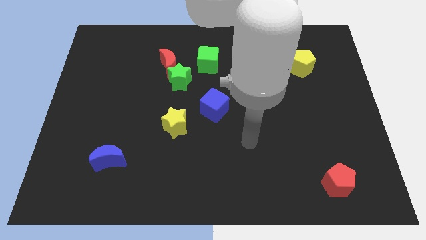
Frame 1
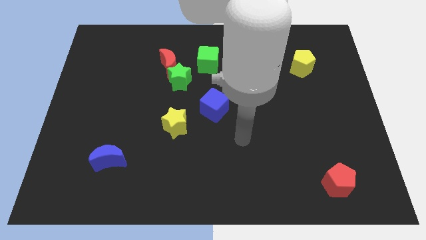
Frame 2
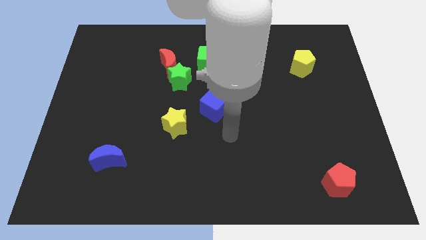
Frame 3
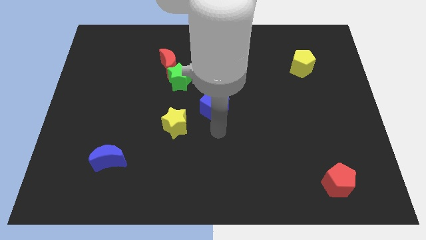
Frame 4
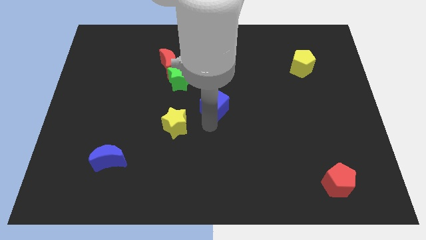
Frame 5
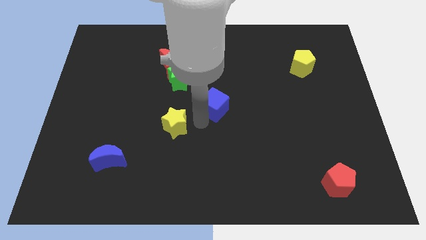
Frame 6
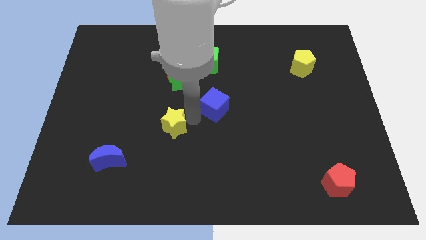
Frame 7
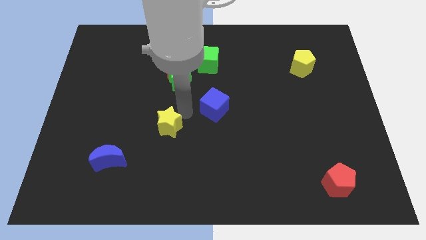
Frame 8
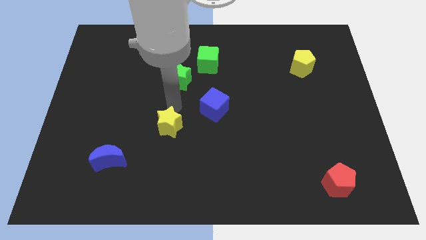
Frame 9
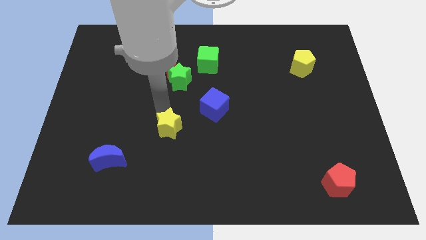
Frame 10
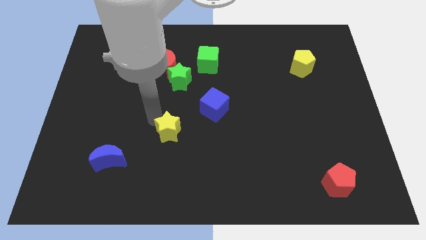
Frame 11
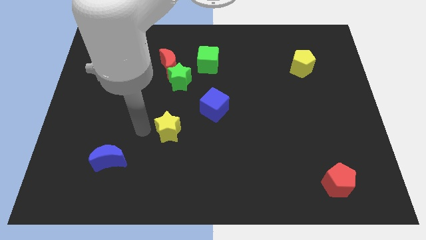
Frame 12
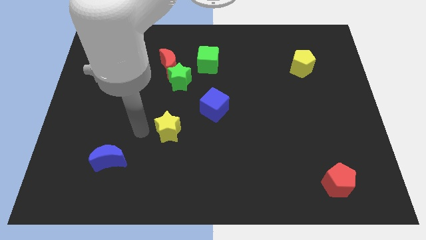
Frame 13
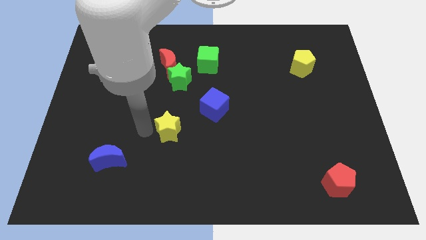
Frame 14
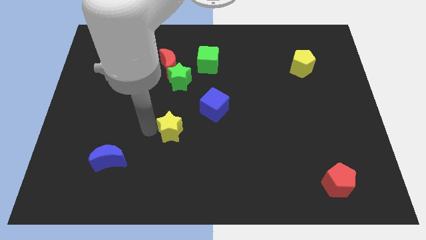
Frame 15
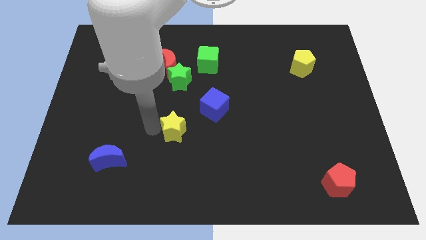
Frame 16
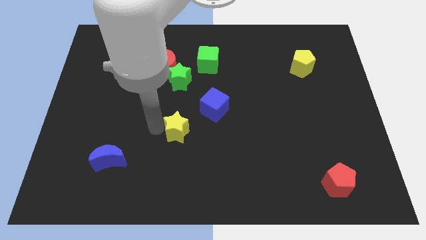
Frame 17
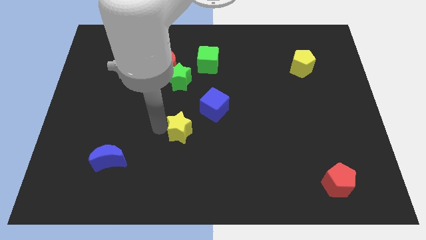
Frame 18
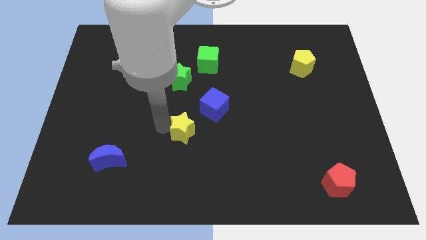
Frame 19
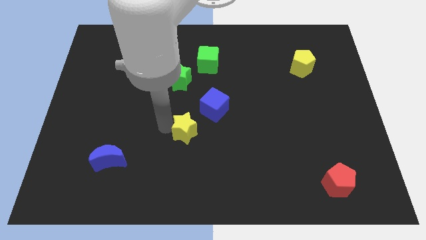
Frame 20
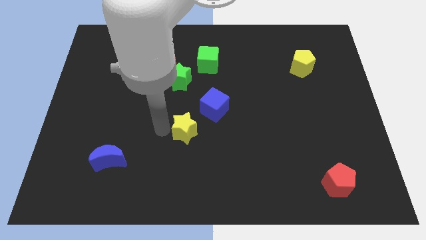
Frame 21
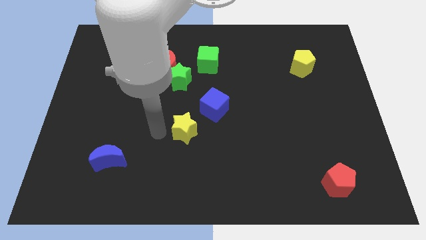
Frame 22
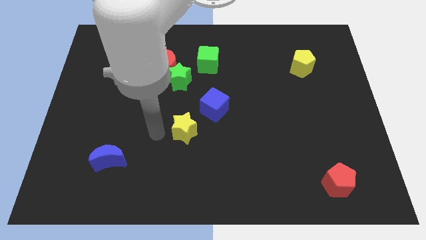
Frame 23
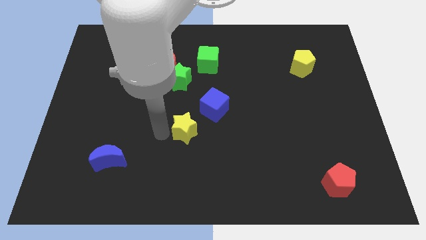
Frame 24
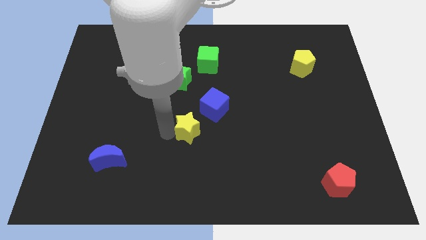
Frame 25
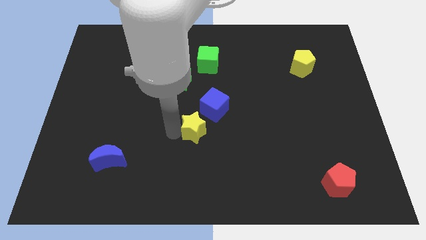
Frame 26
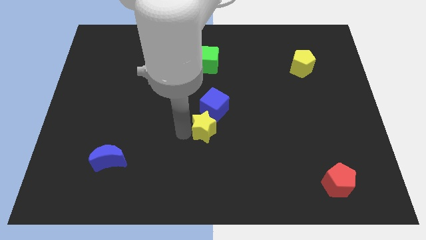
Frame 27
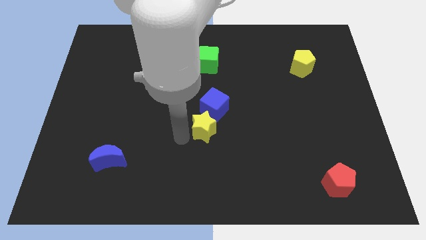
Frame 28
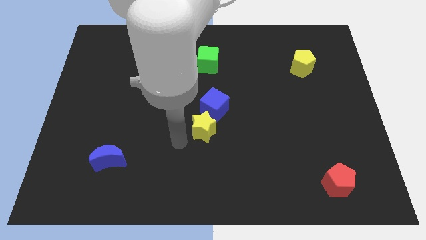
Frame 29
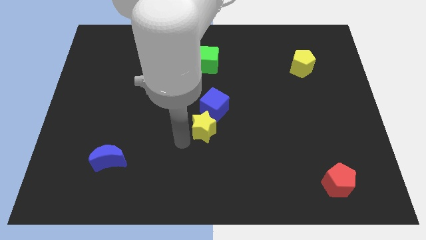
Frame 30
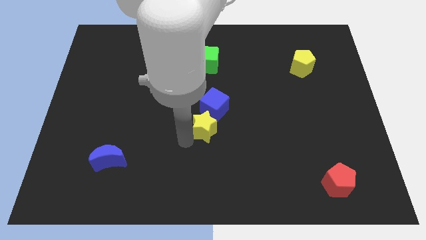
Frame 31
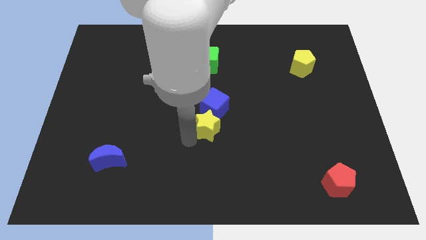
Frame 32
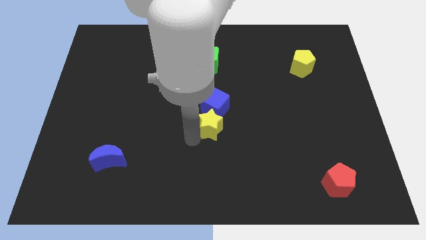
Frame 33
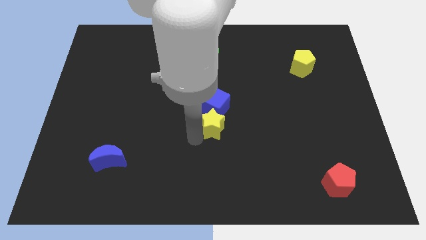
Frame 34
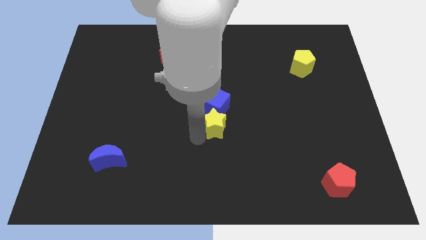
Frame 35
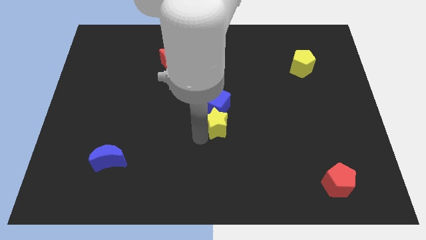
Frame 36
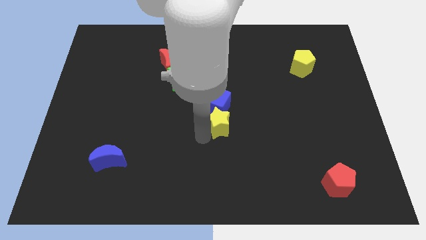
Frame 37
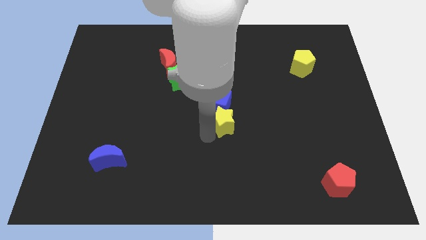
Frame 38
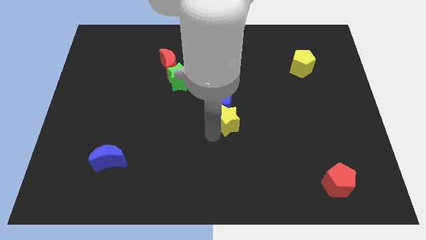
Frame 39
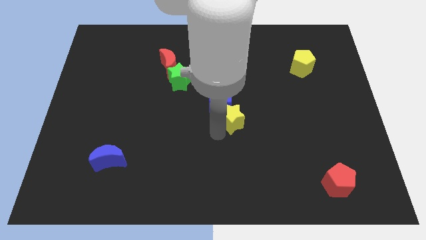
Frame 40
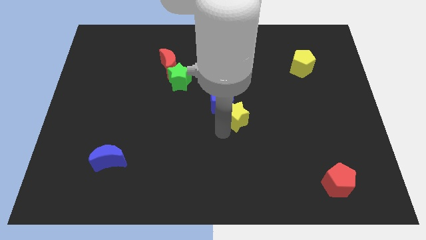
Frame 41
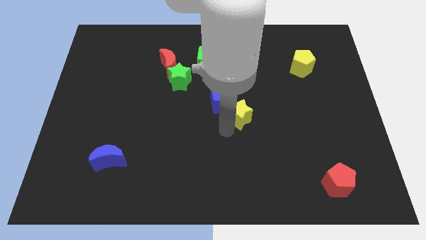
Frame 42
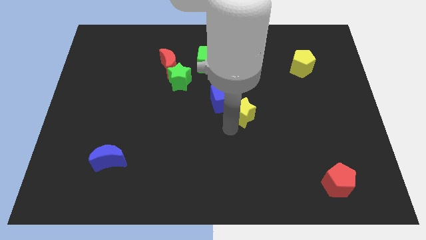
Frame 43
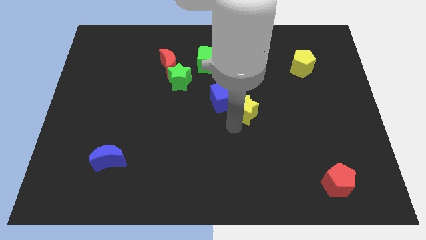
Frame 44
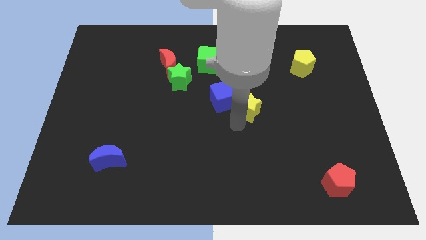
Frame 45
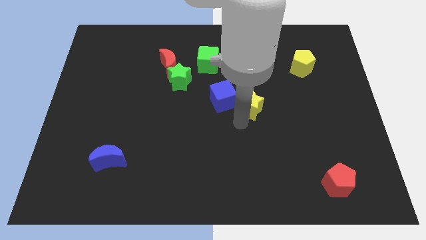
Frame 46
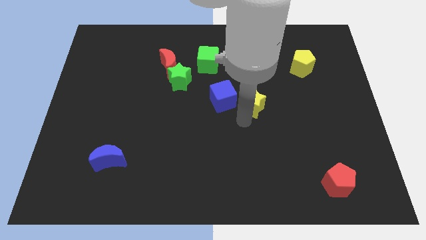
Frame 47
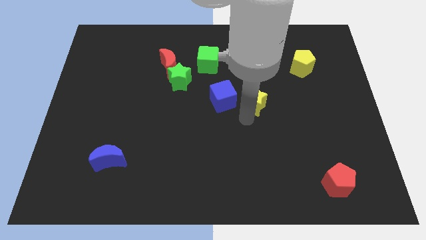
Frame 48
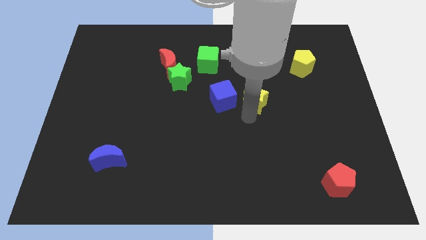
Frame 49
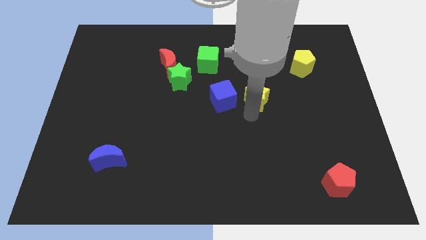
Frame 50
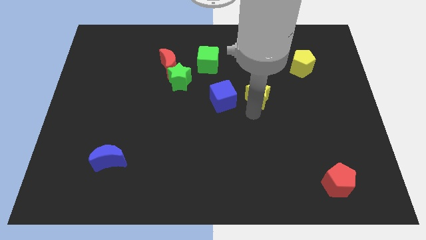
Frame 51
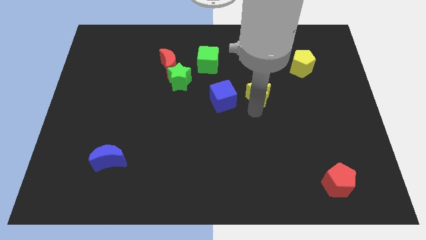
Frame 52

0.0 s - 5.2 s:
put the yellow star to the top right of the blue cube

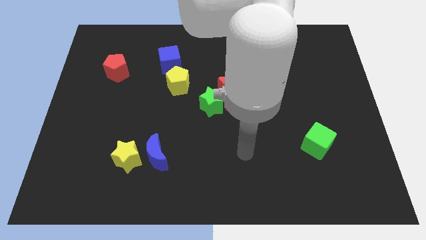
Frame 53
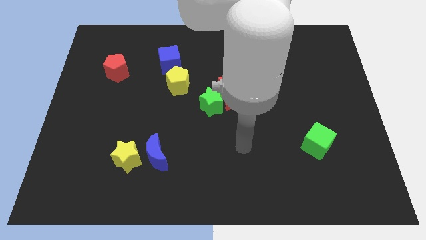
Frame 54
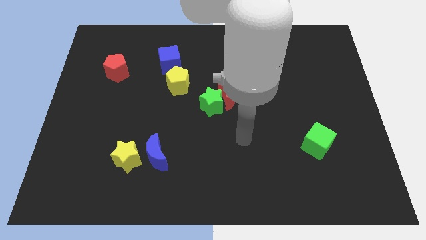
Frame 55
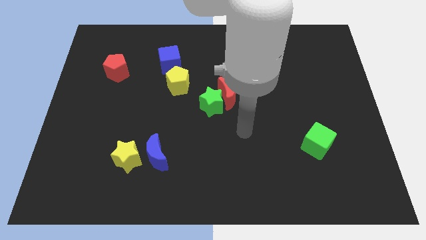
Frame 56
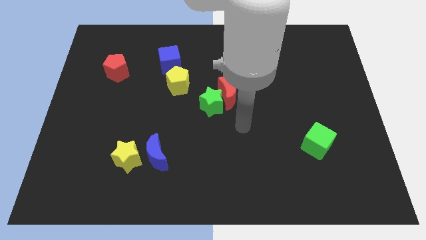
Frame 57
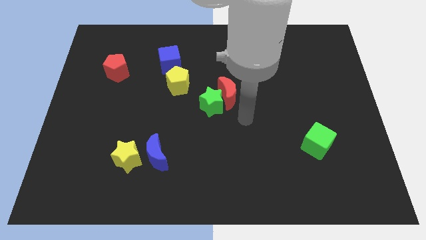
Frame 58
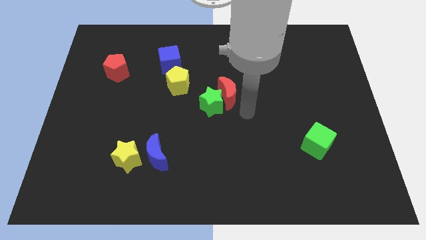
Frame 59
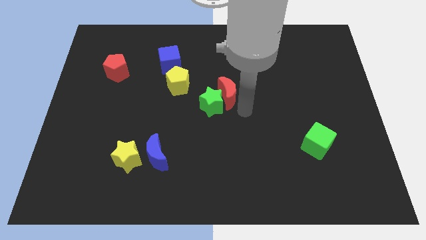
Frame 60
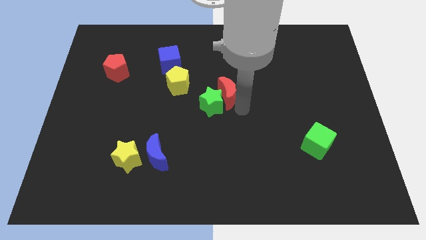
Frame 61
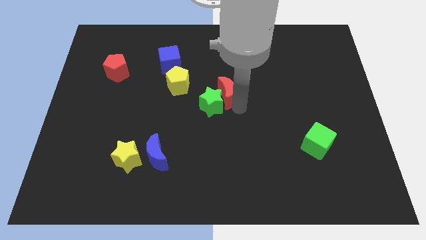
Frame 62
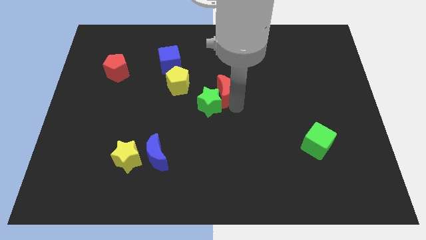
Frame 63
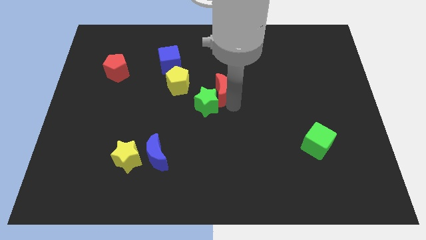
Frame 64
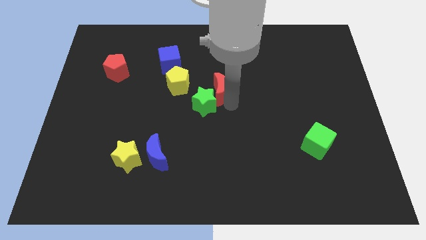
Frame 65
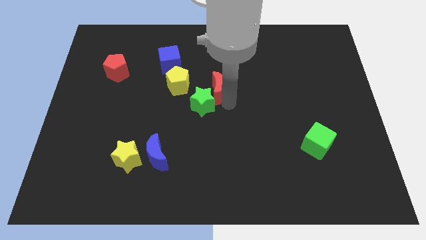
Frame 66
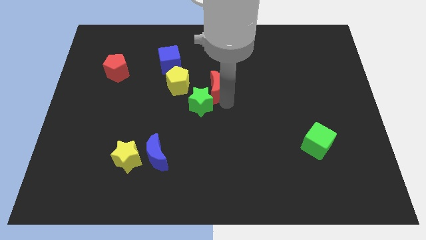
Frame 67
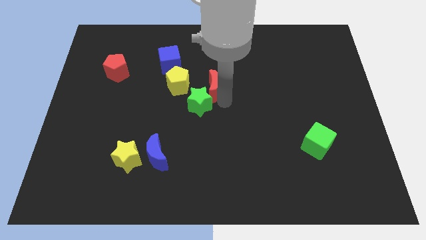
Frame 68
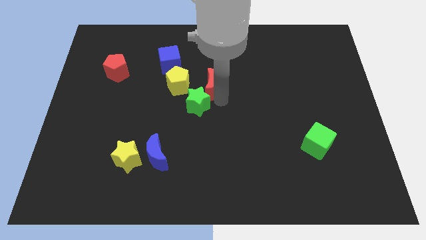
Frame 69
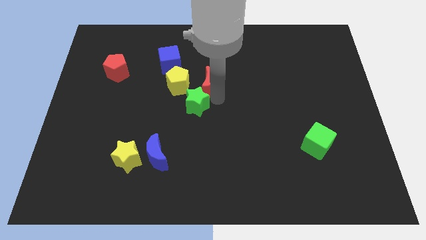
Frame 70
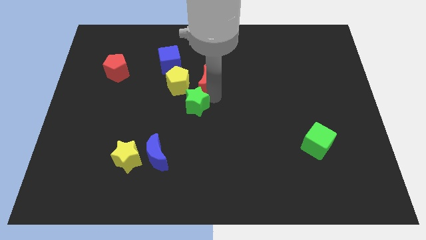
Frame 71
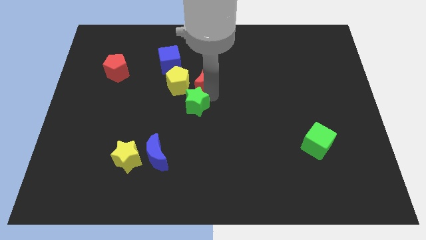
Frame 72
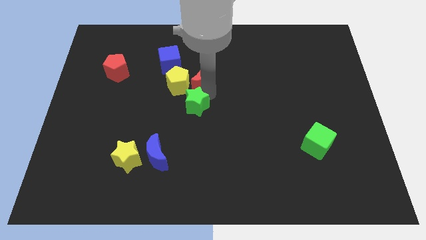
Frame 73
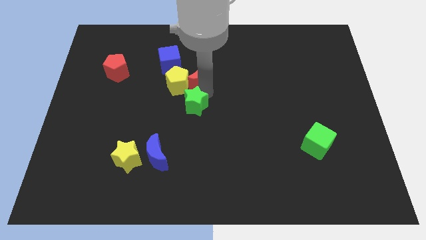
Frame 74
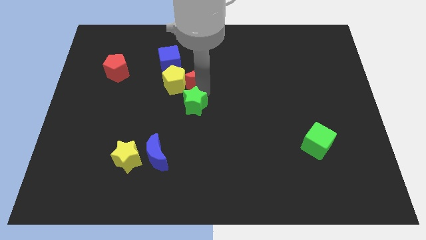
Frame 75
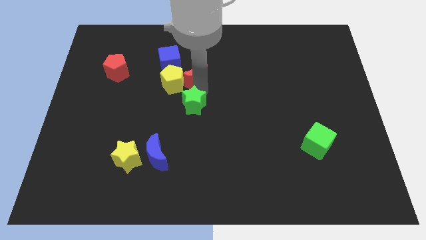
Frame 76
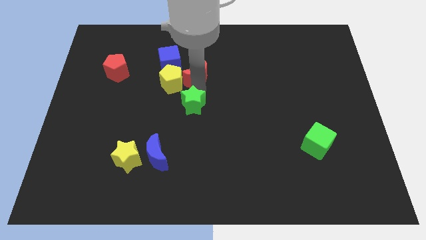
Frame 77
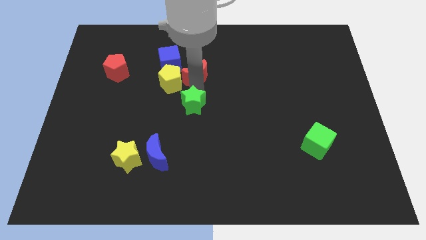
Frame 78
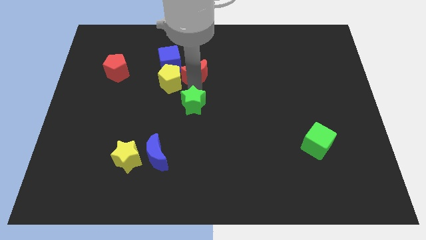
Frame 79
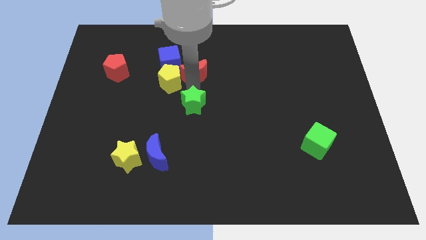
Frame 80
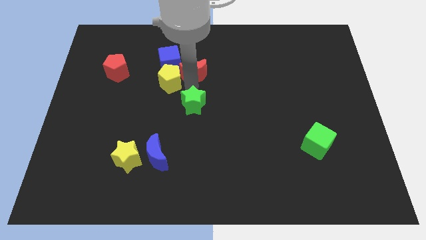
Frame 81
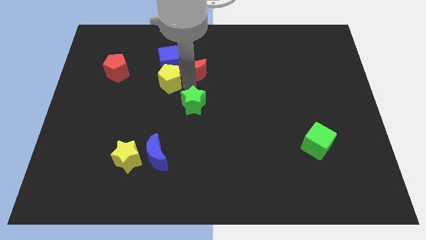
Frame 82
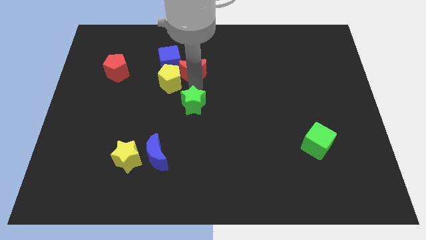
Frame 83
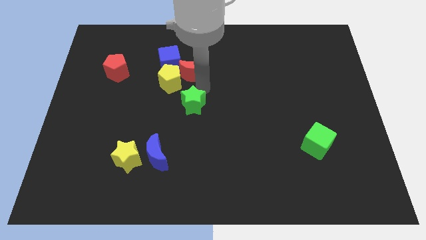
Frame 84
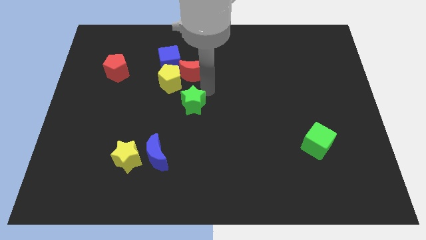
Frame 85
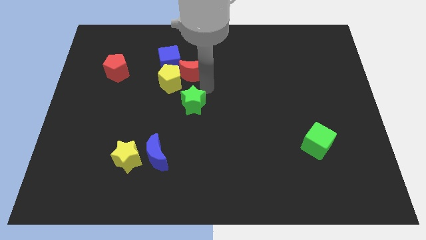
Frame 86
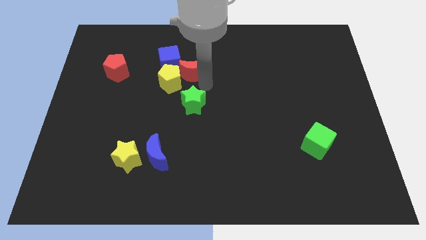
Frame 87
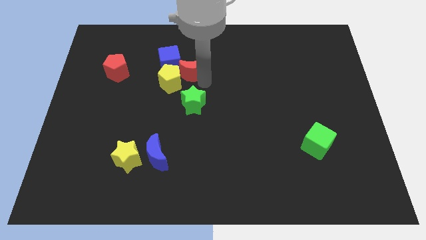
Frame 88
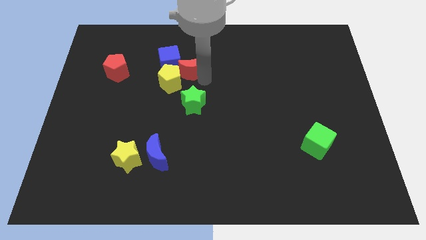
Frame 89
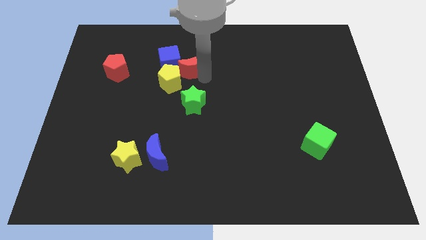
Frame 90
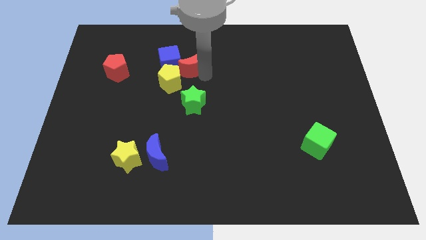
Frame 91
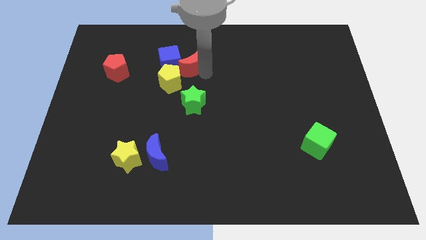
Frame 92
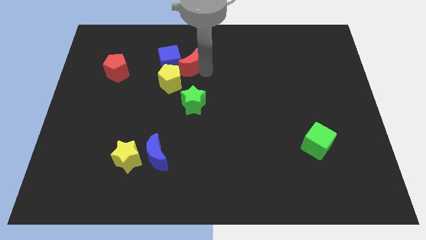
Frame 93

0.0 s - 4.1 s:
slide the red moon to the top side of the yellow pentagon
